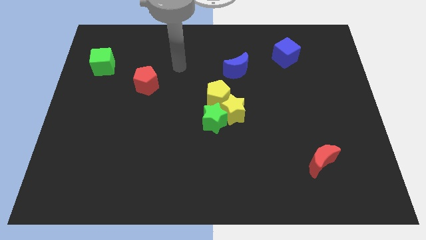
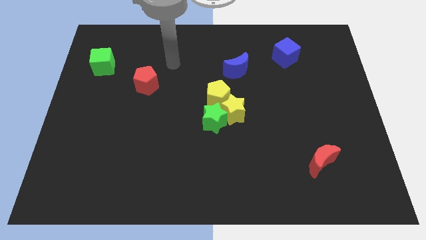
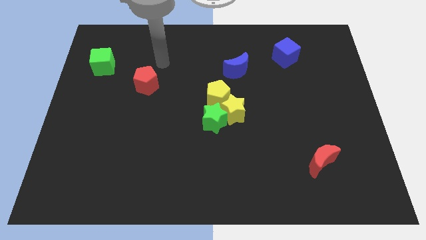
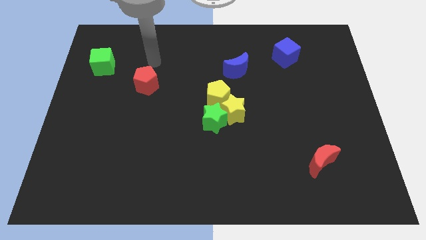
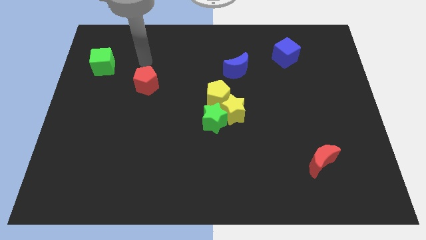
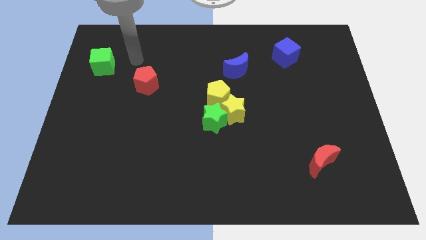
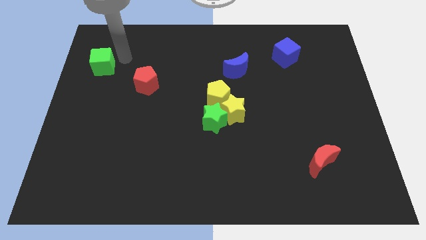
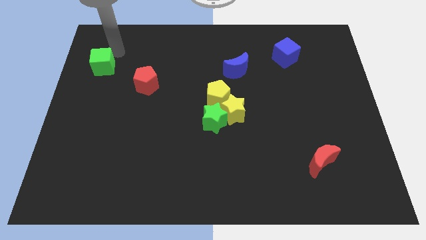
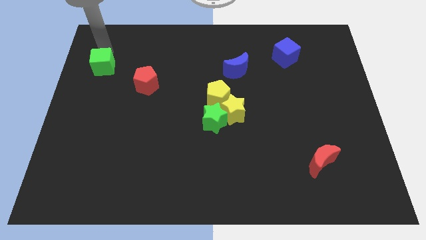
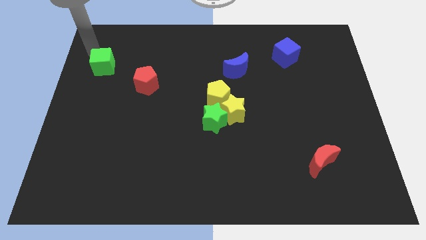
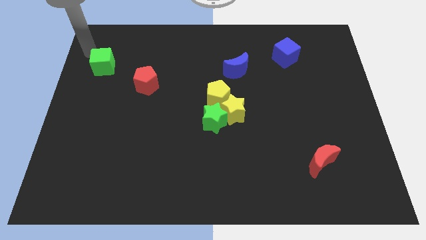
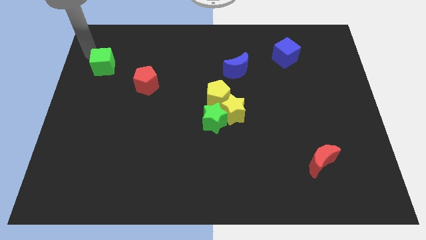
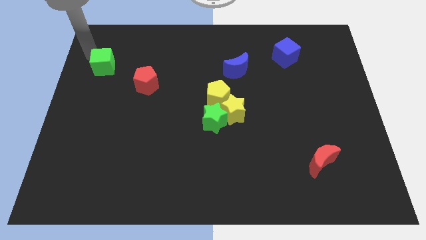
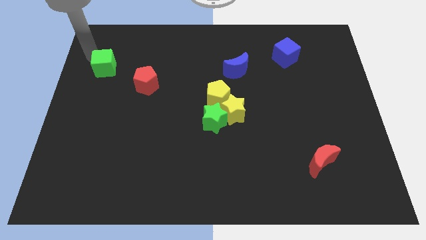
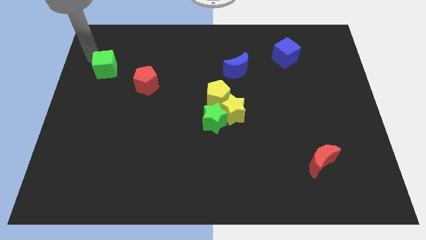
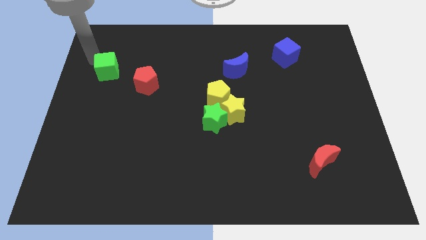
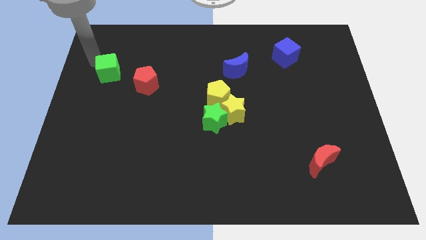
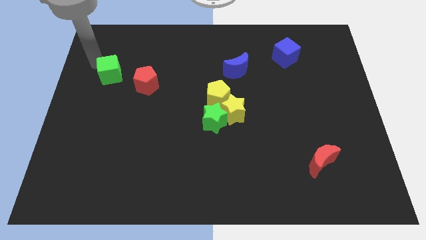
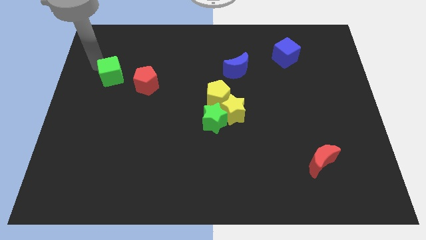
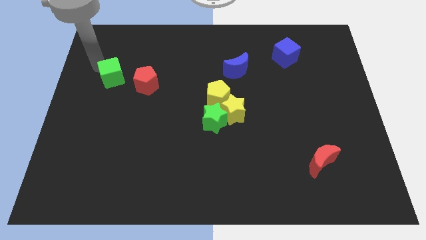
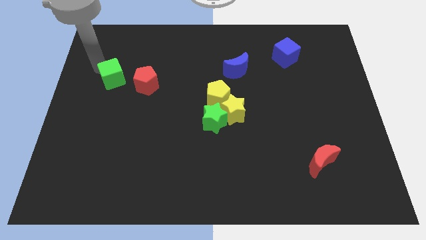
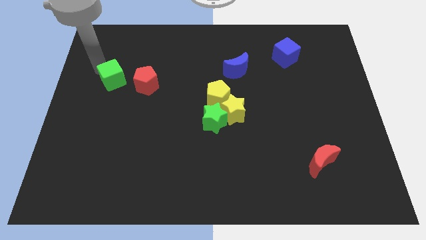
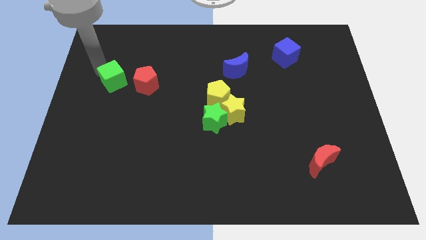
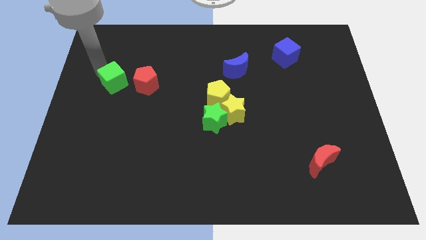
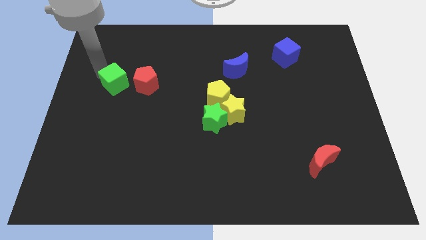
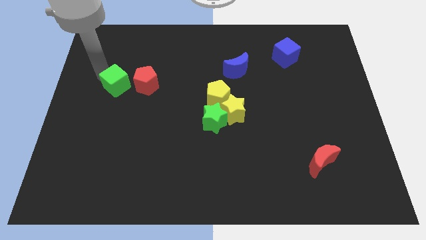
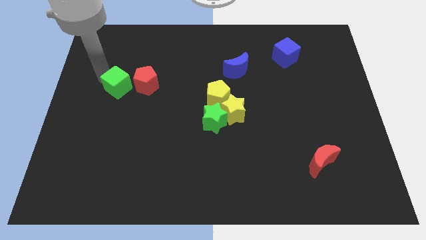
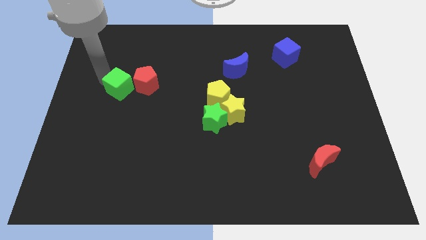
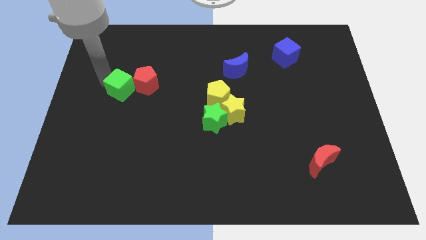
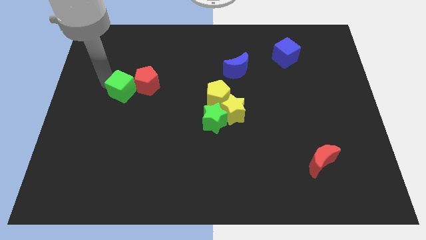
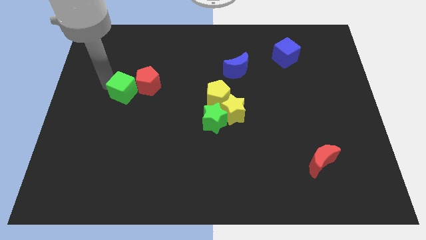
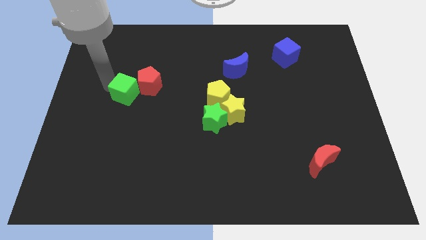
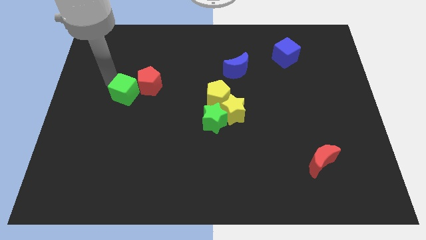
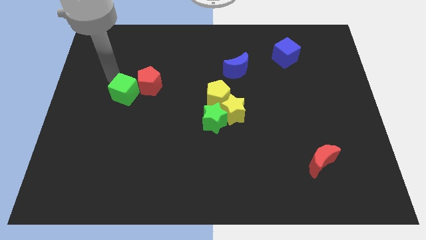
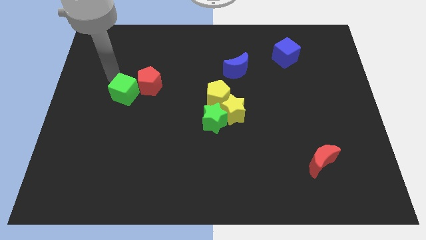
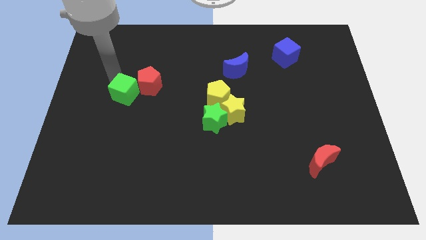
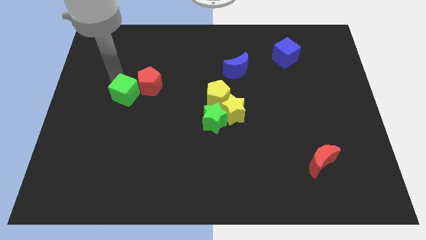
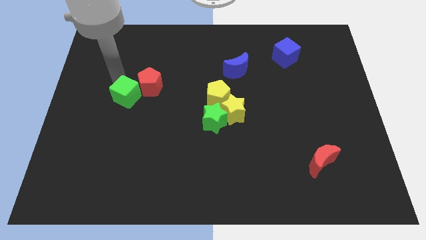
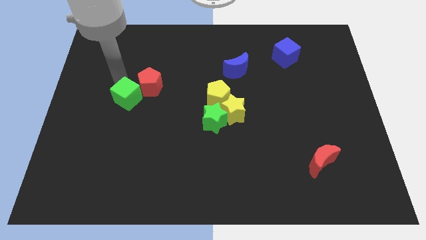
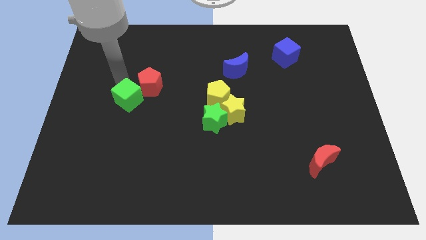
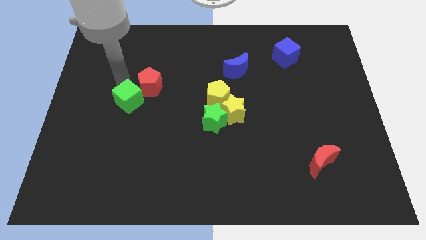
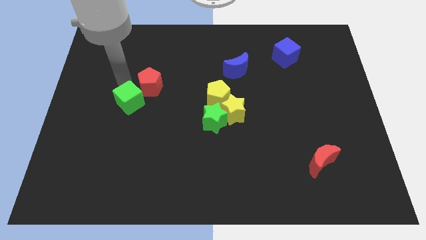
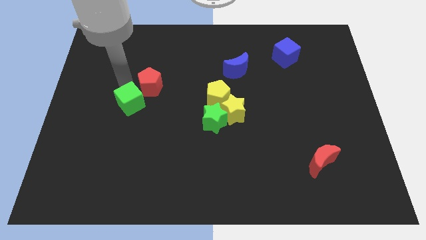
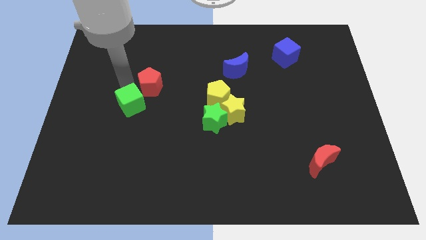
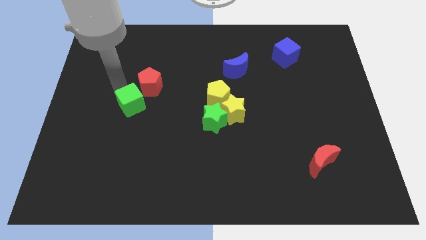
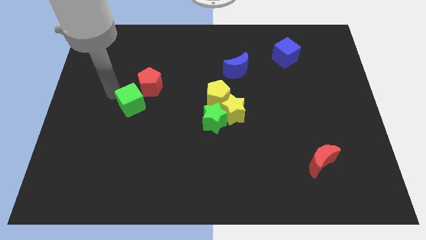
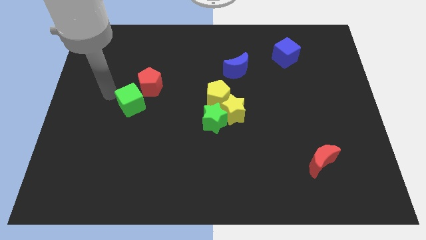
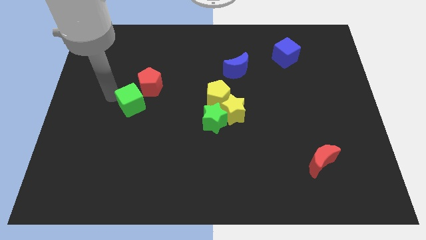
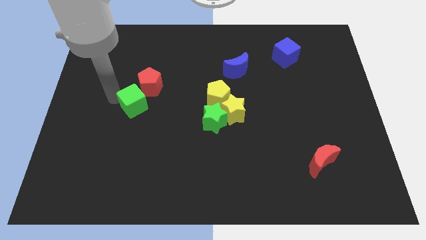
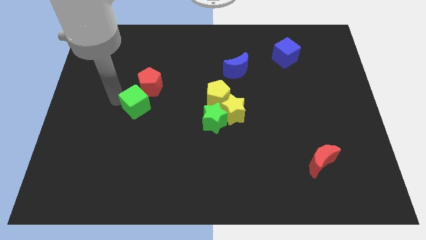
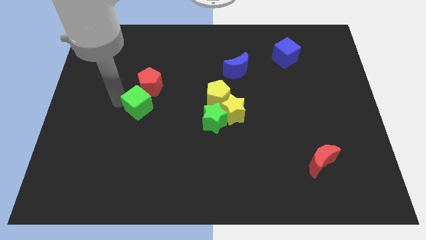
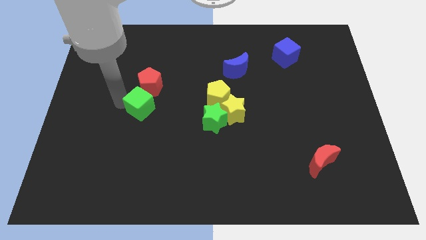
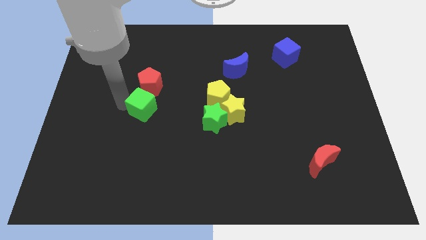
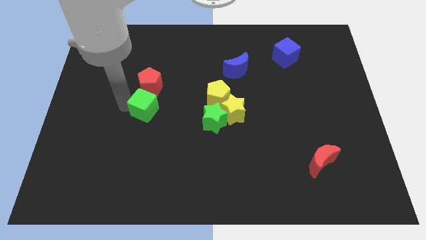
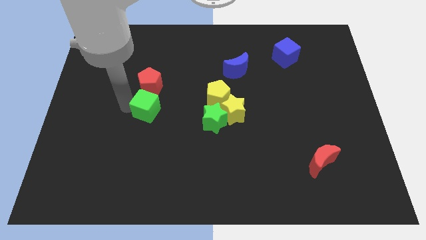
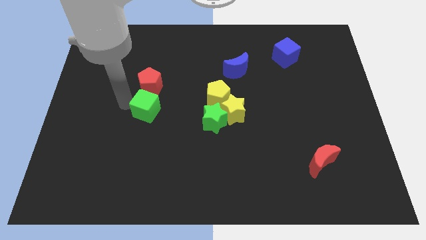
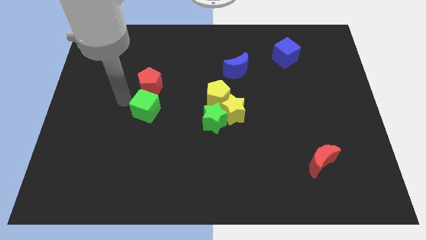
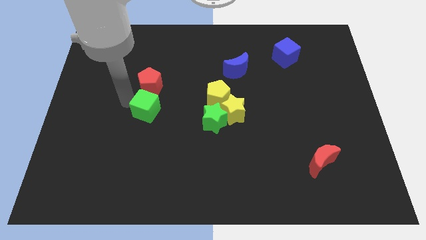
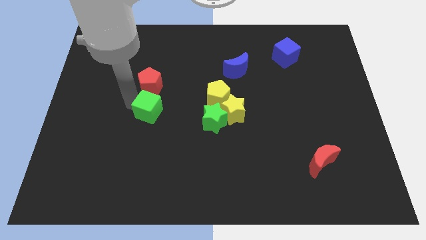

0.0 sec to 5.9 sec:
push the green cube downwards and then right

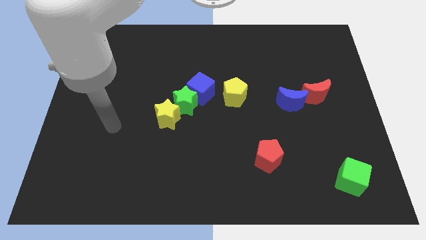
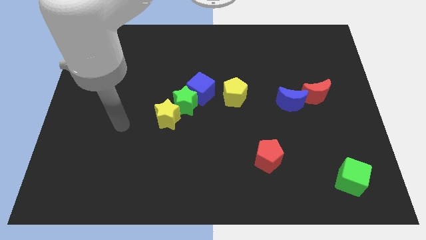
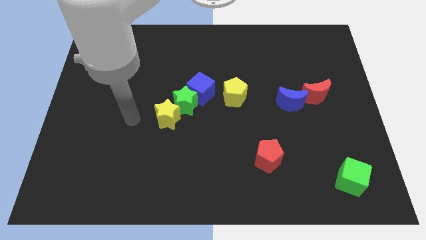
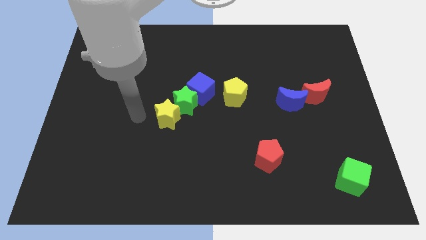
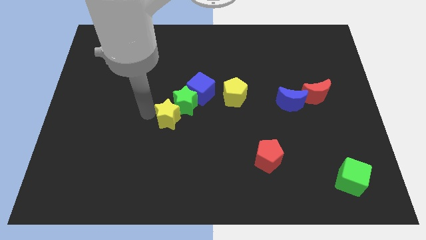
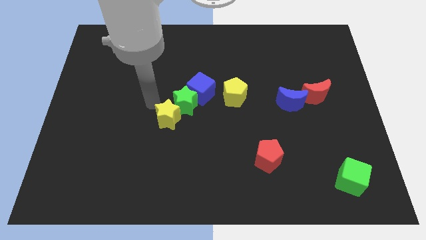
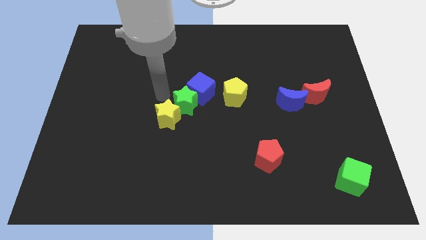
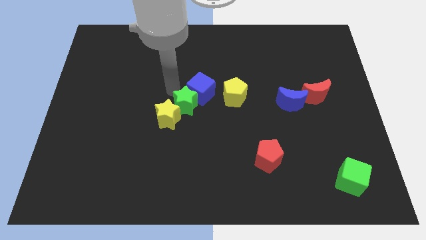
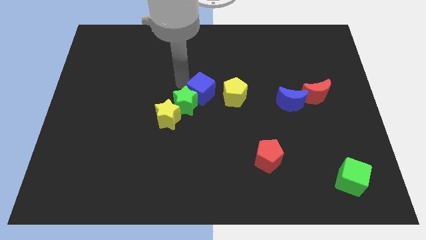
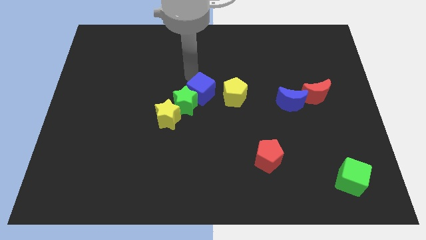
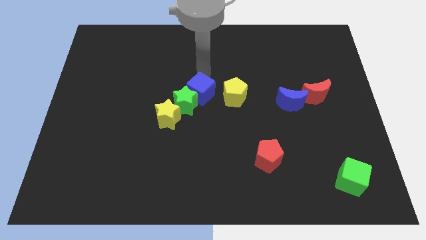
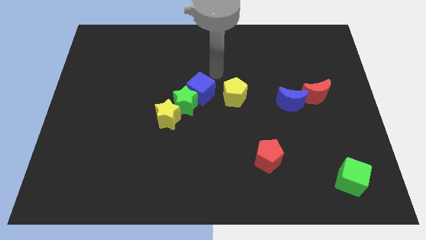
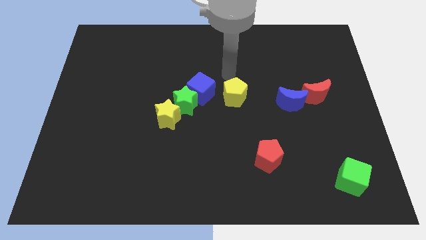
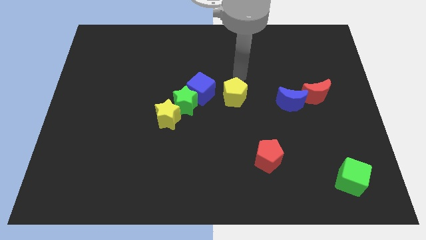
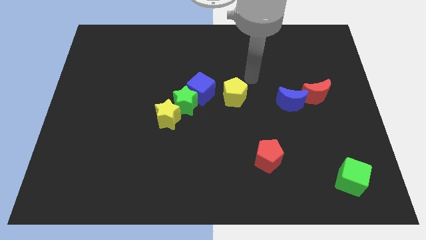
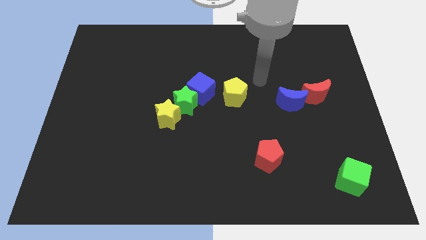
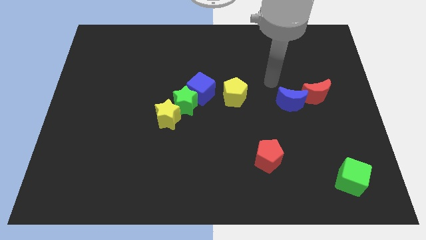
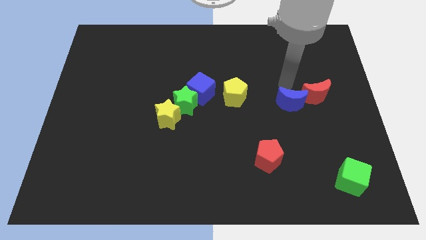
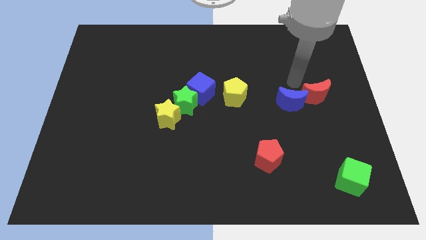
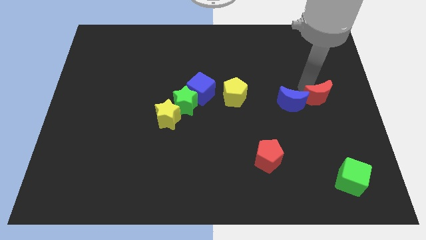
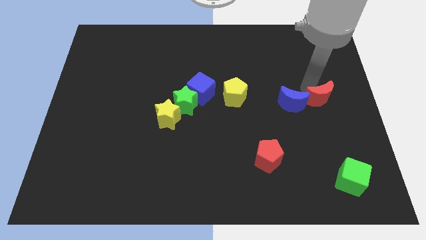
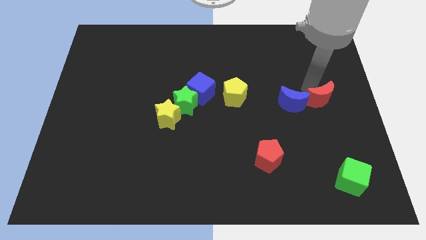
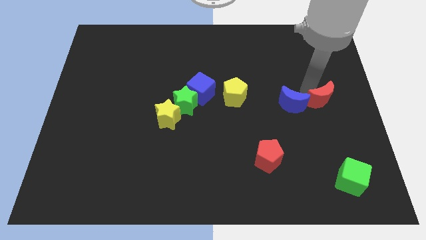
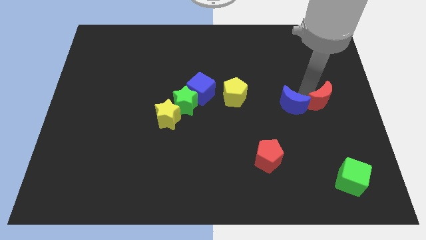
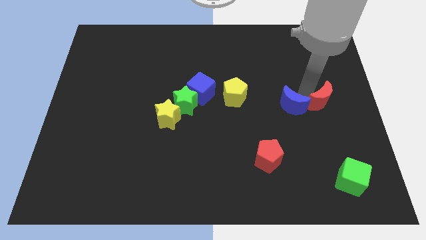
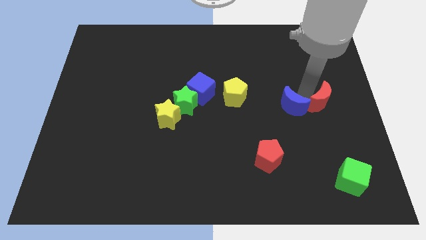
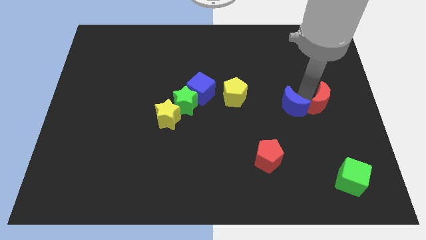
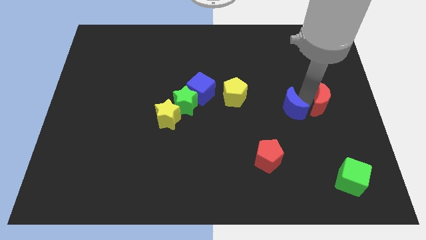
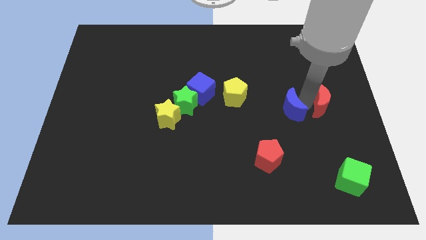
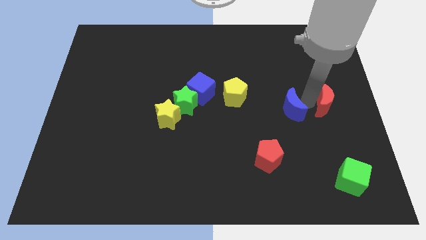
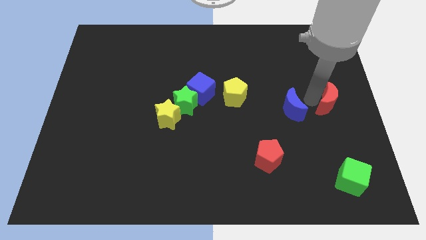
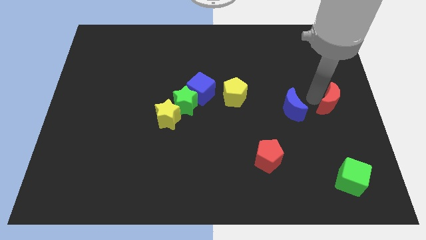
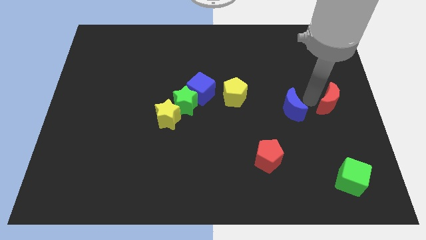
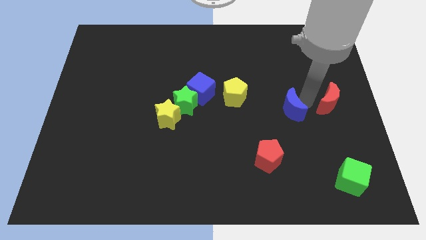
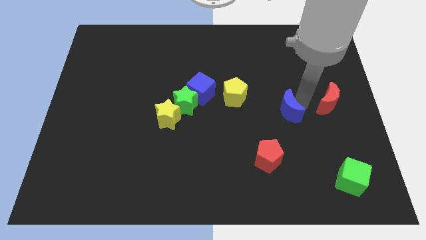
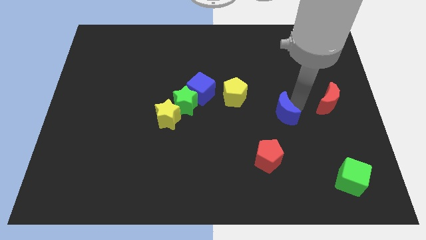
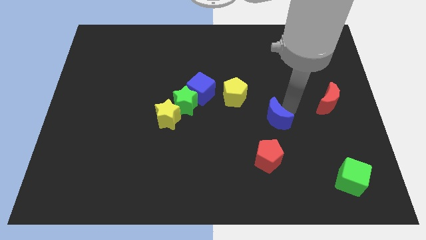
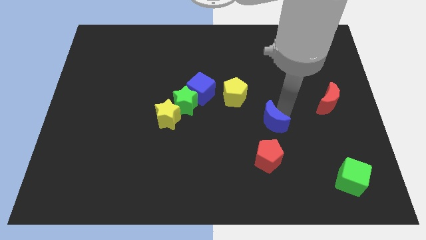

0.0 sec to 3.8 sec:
slightly push the blue moon downwards and to the left
